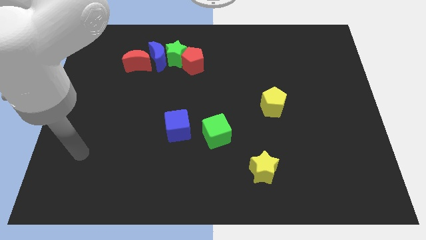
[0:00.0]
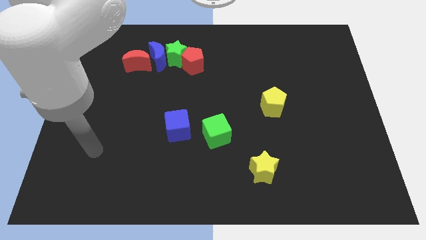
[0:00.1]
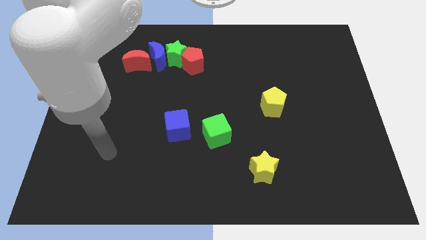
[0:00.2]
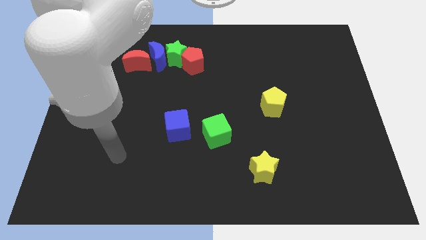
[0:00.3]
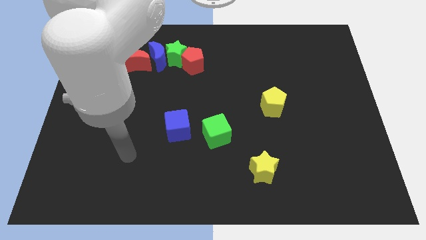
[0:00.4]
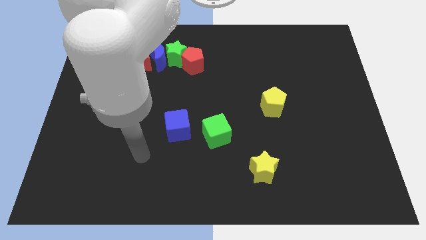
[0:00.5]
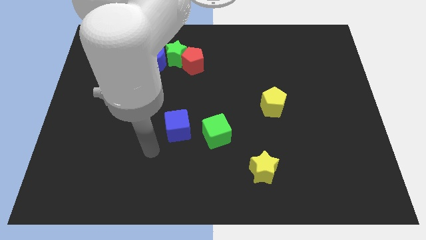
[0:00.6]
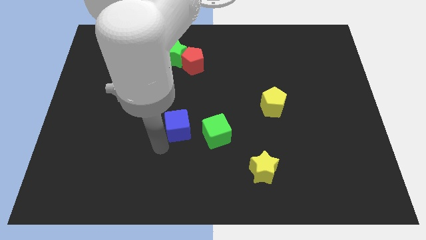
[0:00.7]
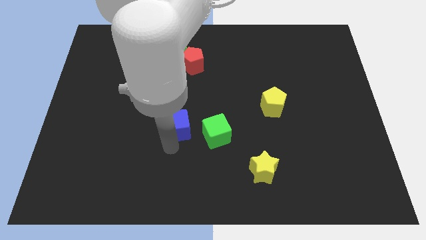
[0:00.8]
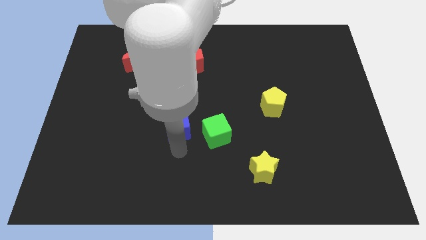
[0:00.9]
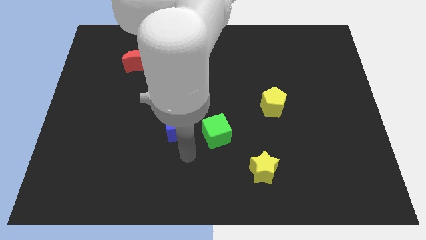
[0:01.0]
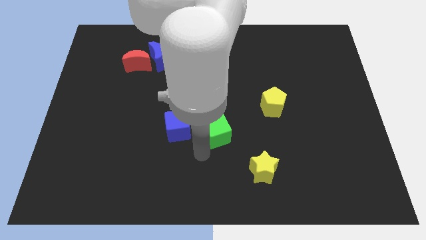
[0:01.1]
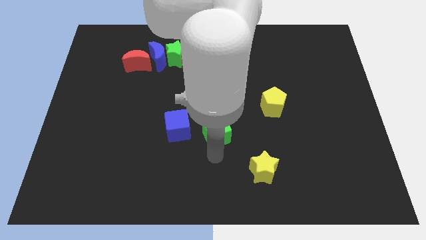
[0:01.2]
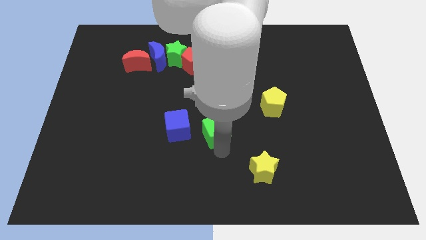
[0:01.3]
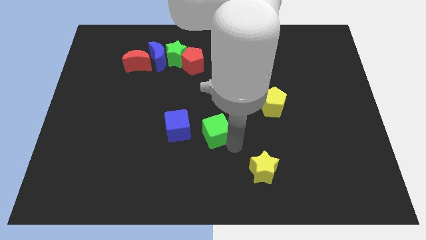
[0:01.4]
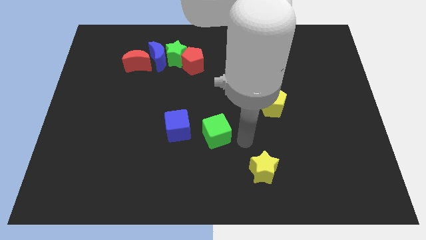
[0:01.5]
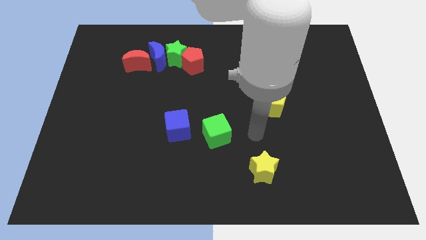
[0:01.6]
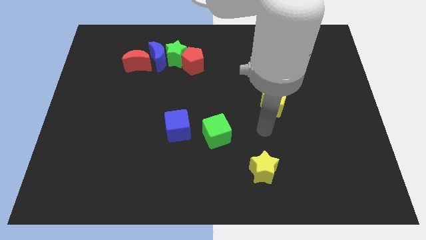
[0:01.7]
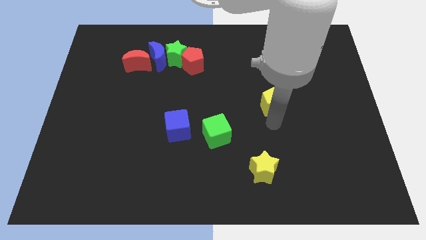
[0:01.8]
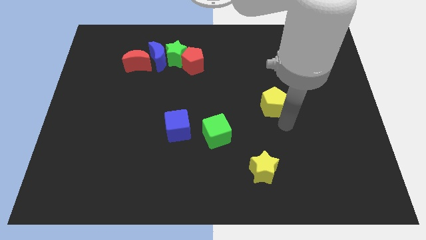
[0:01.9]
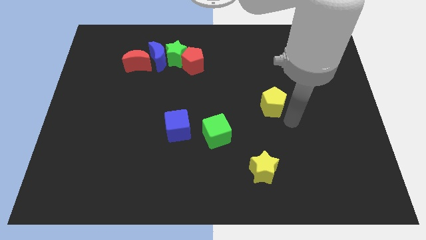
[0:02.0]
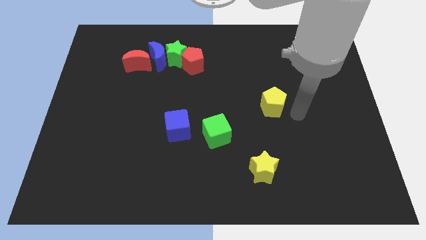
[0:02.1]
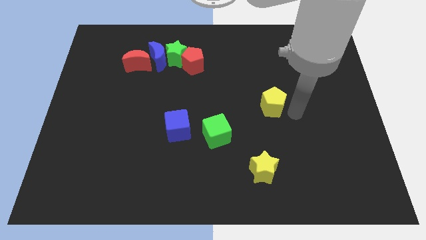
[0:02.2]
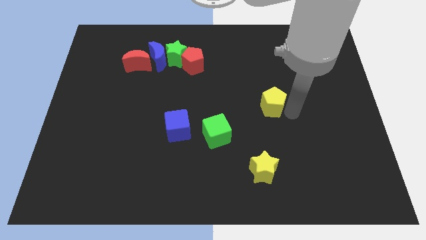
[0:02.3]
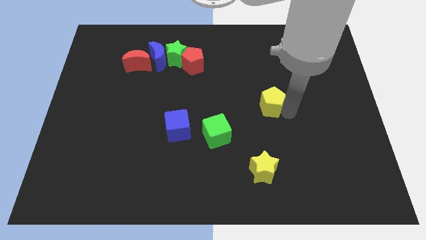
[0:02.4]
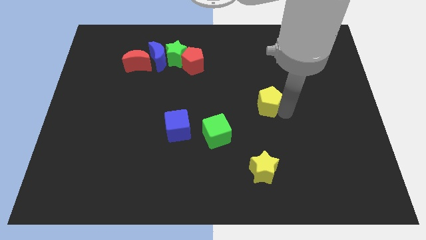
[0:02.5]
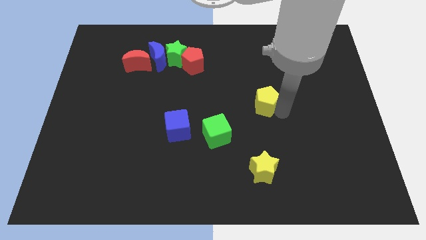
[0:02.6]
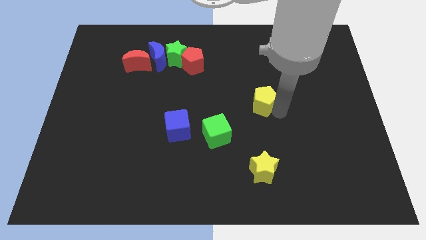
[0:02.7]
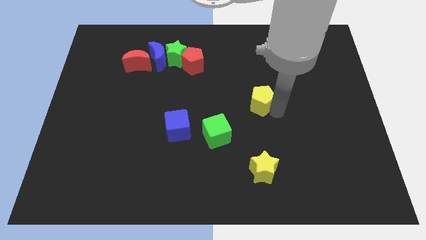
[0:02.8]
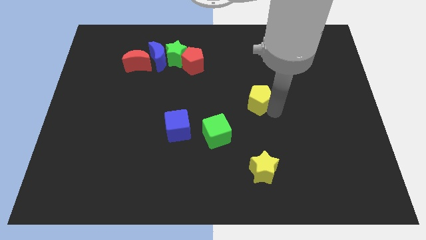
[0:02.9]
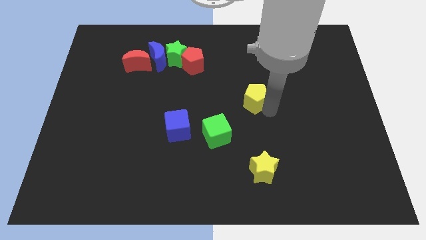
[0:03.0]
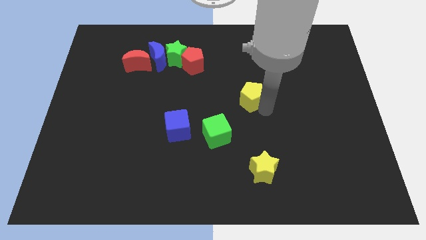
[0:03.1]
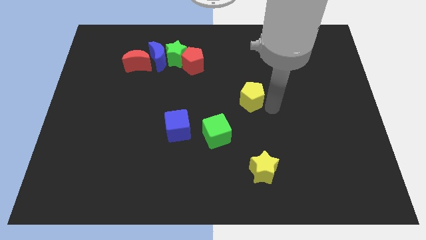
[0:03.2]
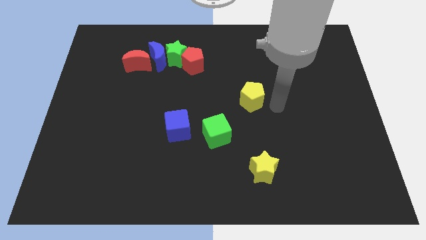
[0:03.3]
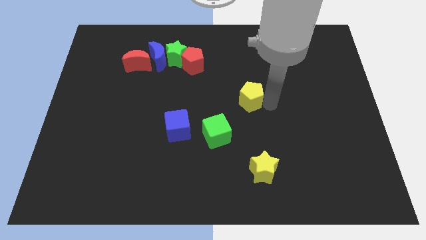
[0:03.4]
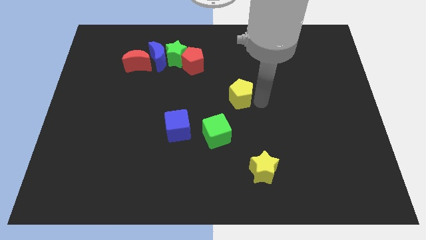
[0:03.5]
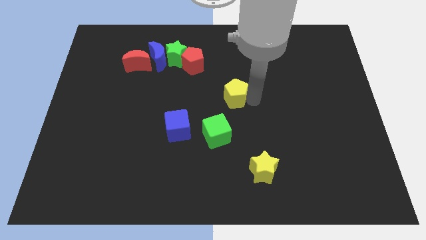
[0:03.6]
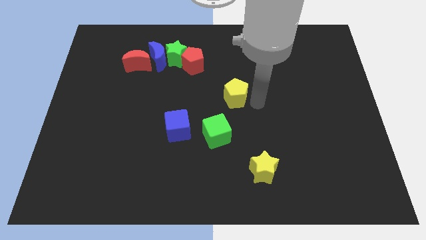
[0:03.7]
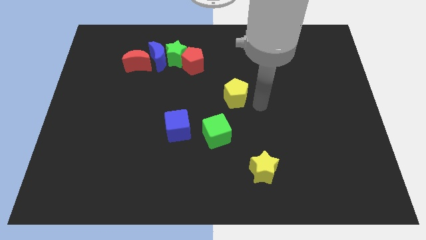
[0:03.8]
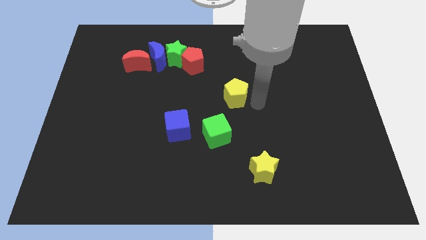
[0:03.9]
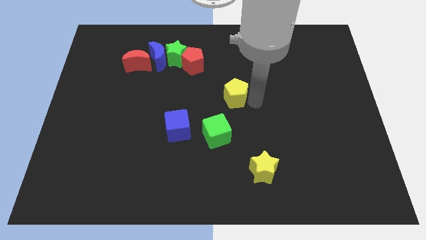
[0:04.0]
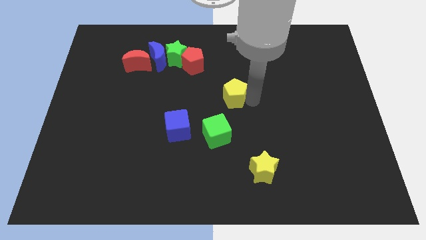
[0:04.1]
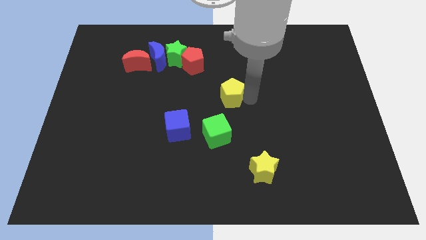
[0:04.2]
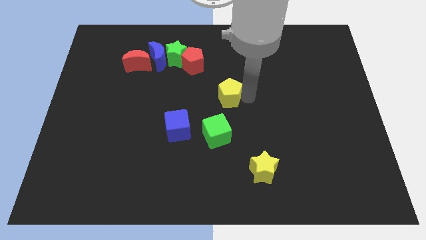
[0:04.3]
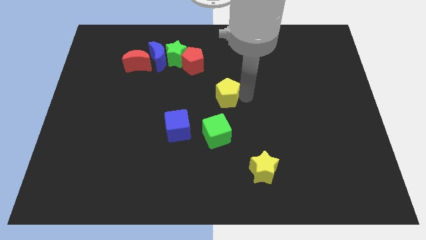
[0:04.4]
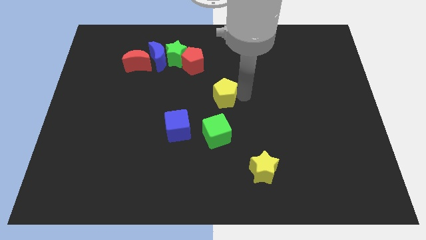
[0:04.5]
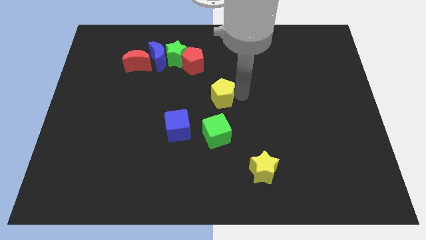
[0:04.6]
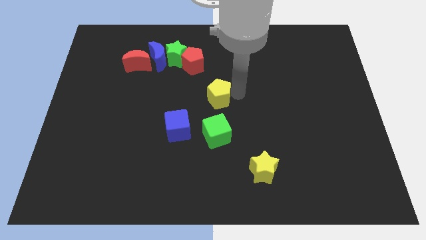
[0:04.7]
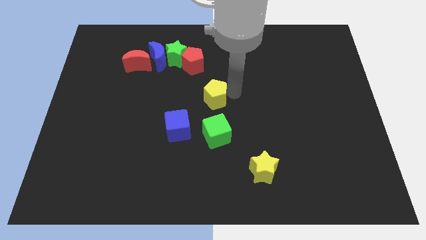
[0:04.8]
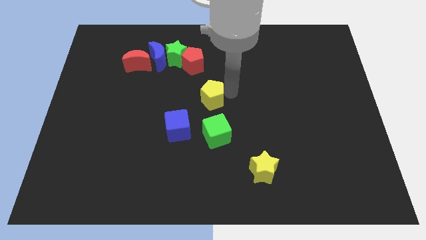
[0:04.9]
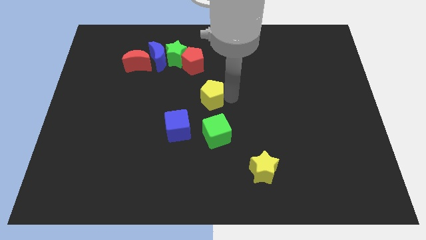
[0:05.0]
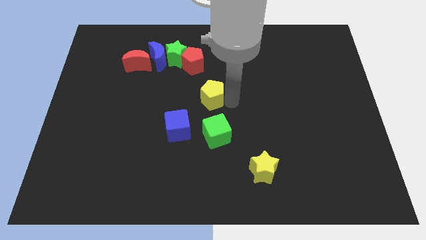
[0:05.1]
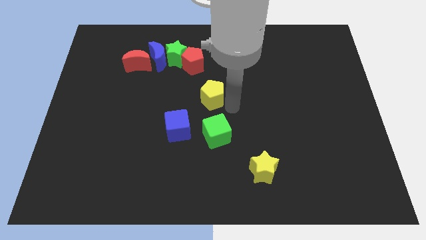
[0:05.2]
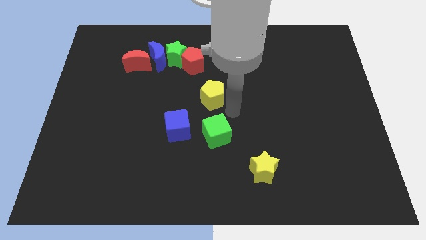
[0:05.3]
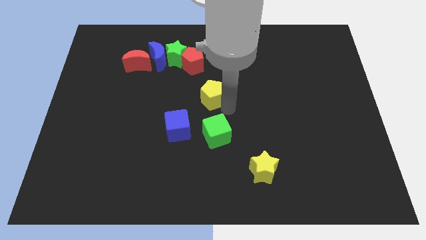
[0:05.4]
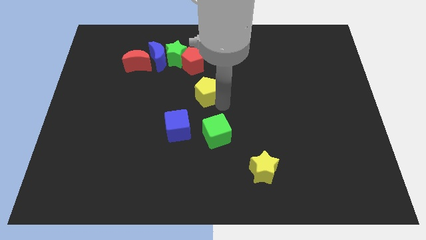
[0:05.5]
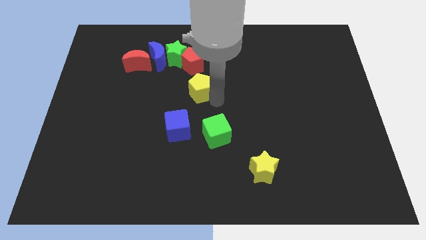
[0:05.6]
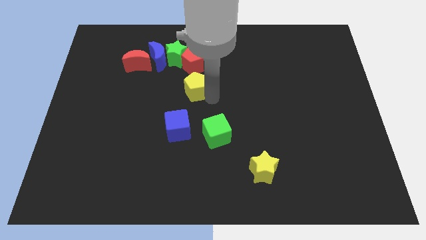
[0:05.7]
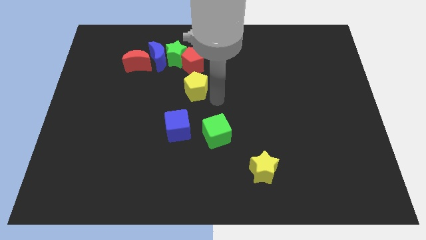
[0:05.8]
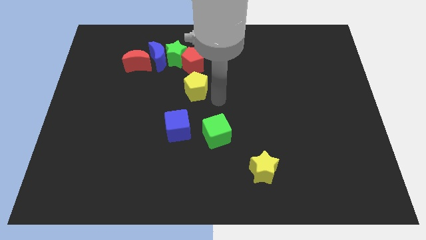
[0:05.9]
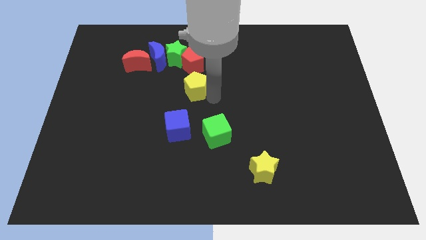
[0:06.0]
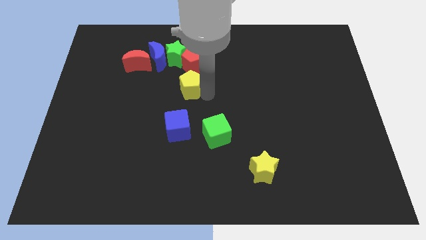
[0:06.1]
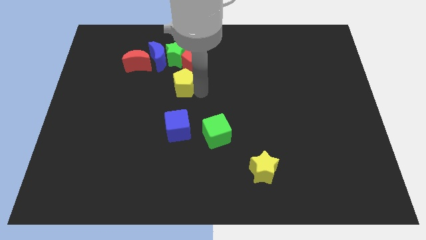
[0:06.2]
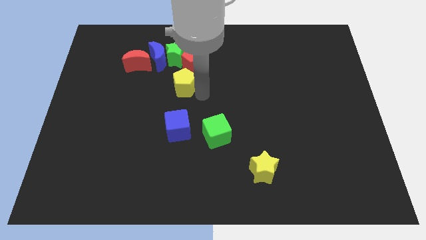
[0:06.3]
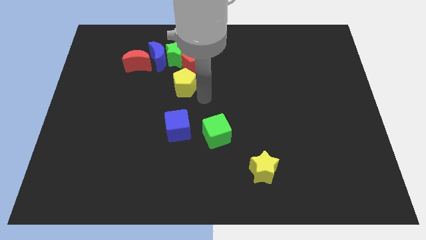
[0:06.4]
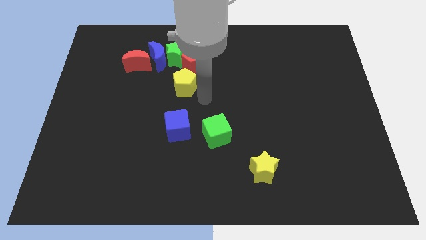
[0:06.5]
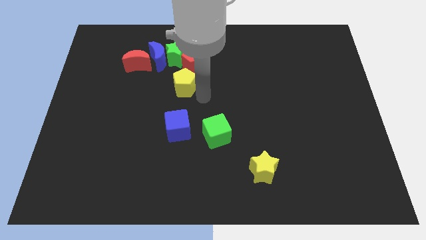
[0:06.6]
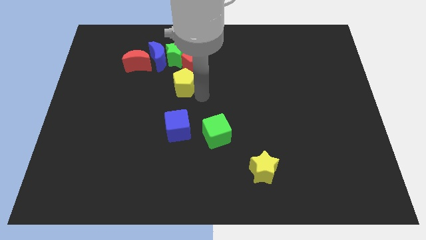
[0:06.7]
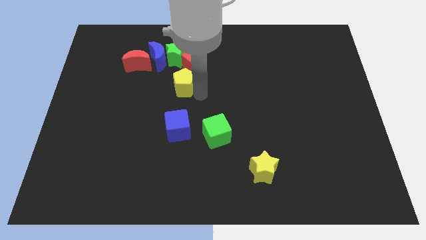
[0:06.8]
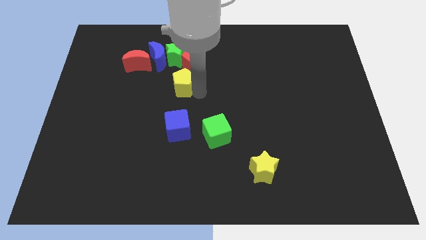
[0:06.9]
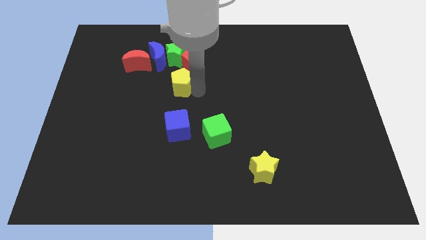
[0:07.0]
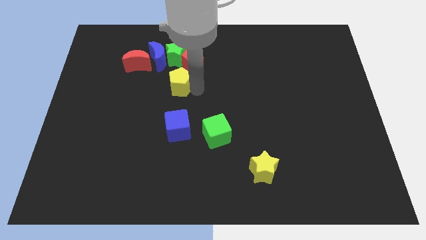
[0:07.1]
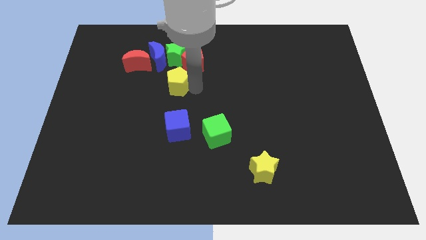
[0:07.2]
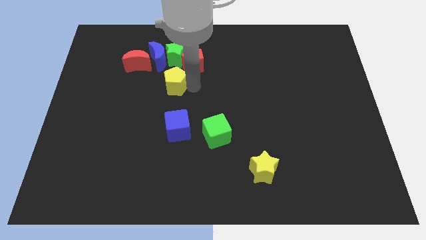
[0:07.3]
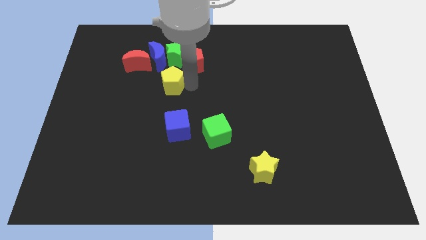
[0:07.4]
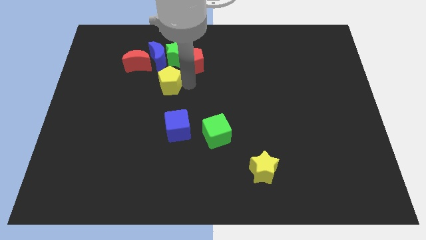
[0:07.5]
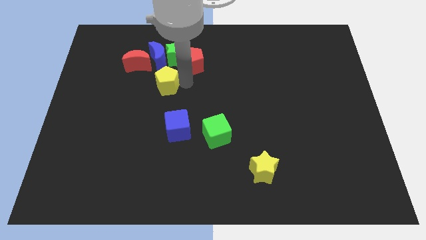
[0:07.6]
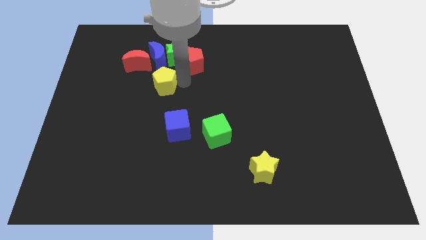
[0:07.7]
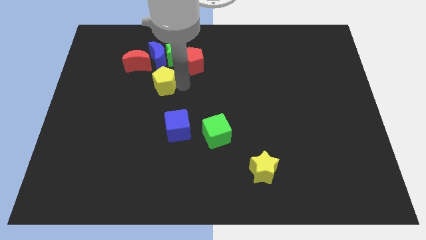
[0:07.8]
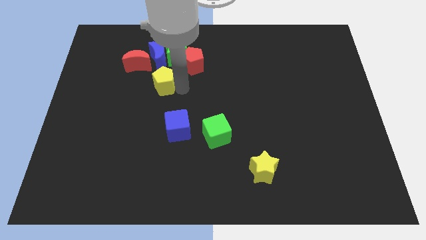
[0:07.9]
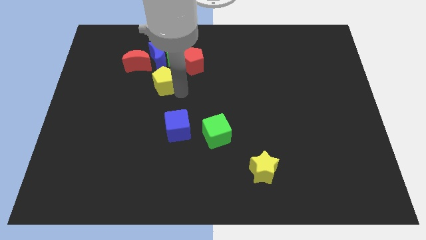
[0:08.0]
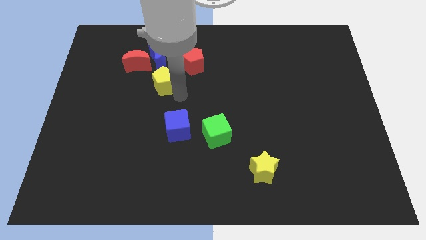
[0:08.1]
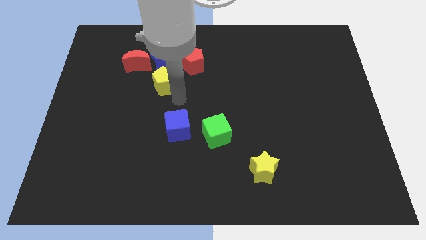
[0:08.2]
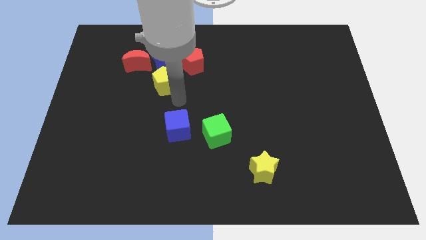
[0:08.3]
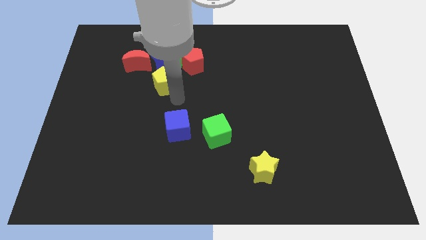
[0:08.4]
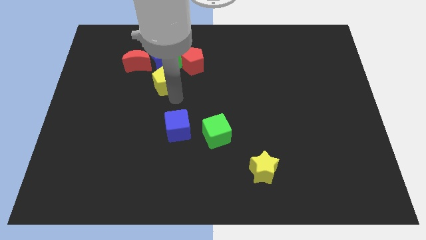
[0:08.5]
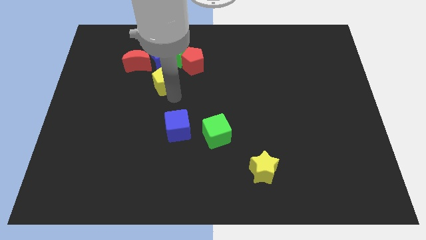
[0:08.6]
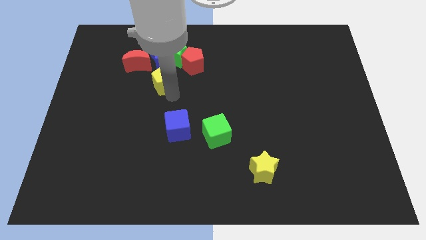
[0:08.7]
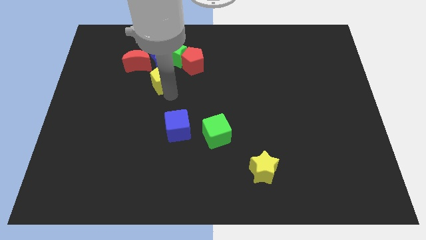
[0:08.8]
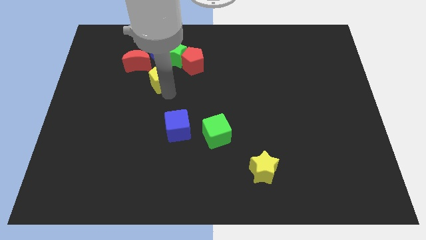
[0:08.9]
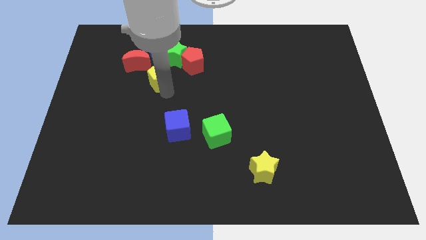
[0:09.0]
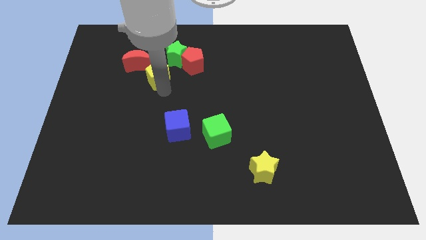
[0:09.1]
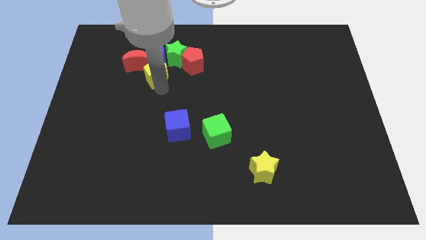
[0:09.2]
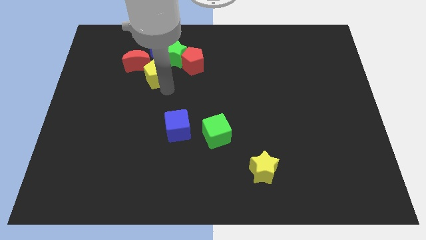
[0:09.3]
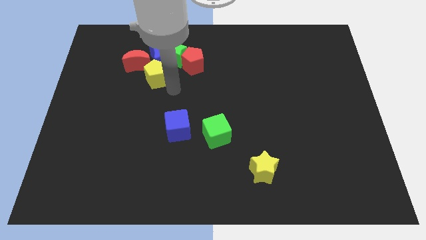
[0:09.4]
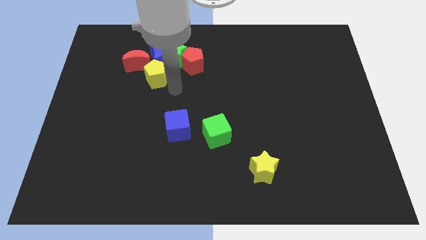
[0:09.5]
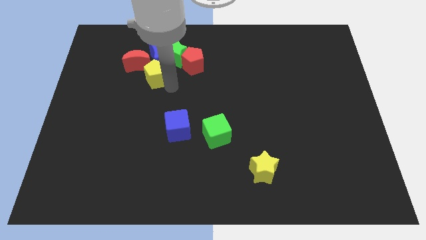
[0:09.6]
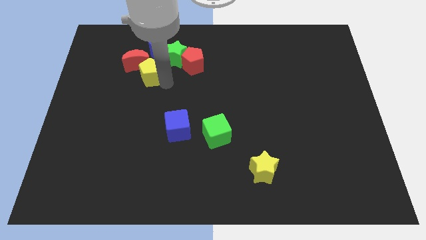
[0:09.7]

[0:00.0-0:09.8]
slide the yellow pentagon towards the red moon
